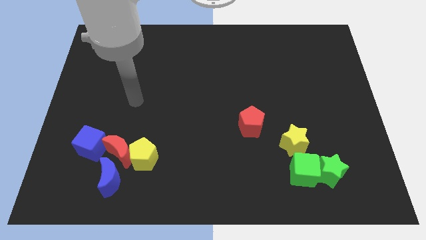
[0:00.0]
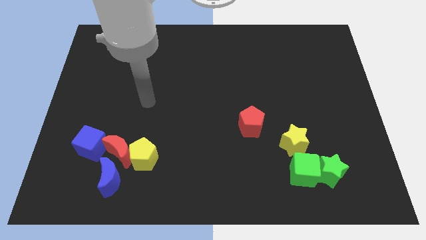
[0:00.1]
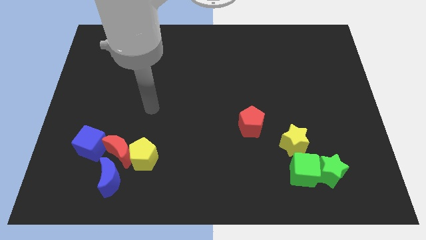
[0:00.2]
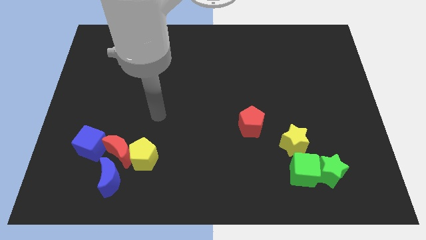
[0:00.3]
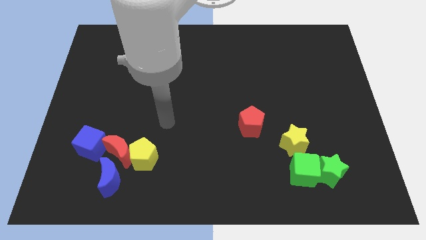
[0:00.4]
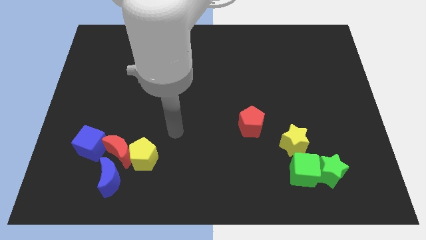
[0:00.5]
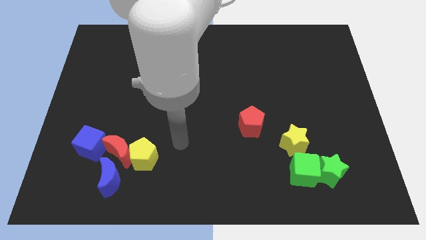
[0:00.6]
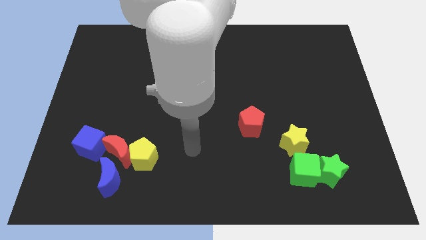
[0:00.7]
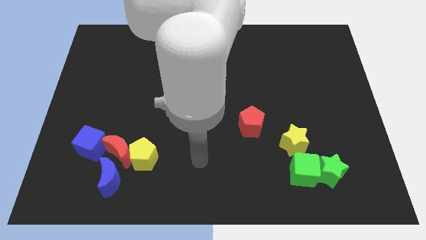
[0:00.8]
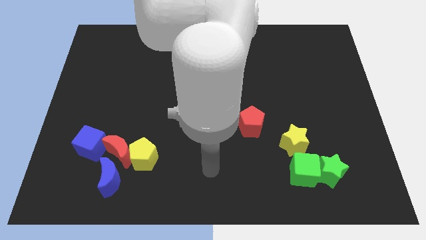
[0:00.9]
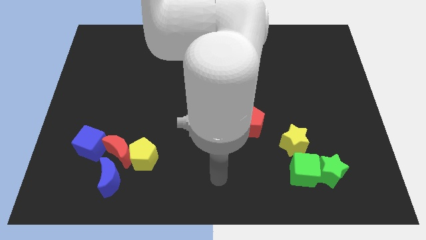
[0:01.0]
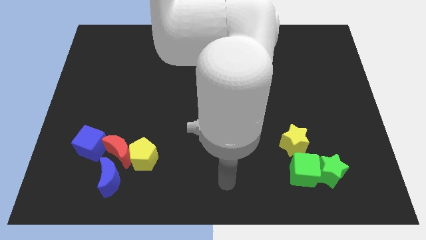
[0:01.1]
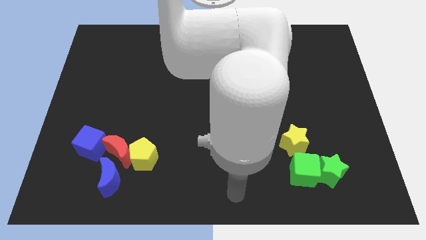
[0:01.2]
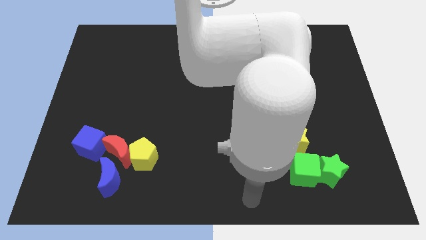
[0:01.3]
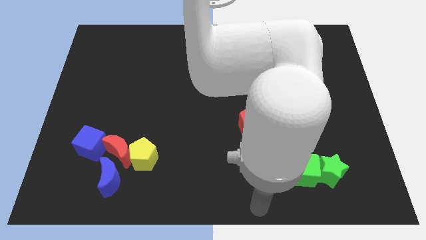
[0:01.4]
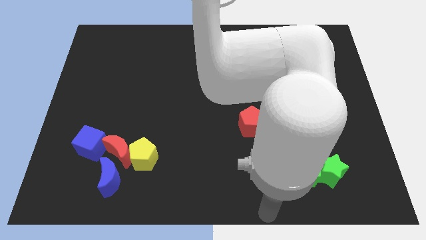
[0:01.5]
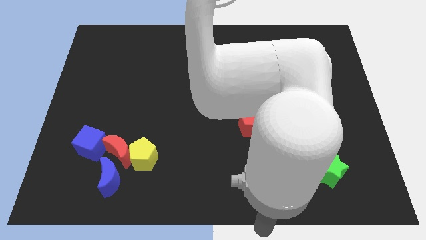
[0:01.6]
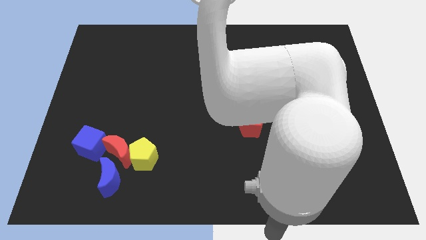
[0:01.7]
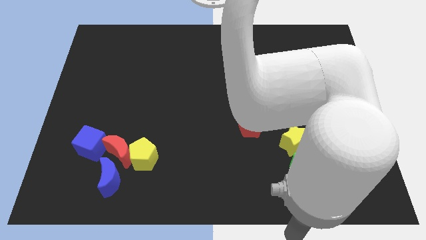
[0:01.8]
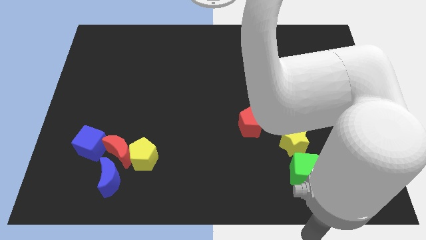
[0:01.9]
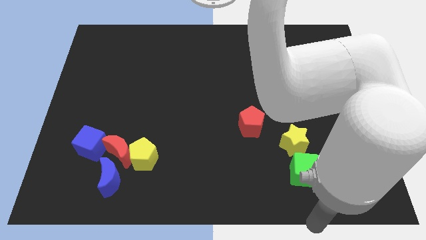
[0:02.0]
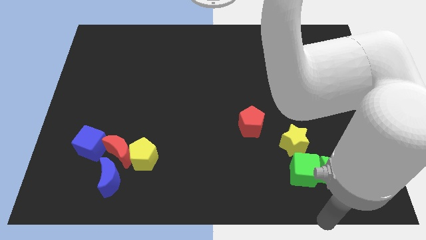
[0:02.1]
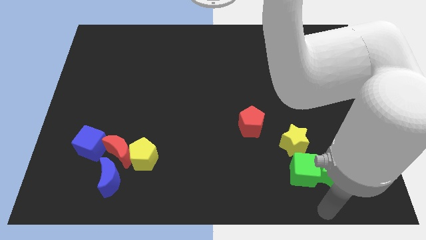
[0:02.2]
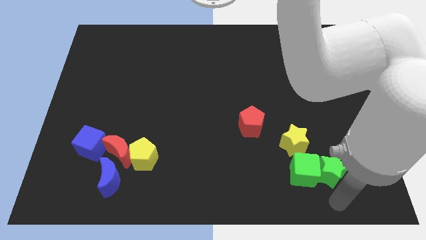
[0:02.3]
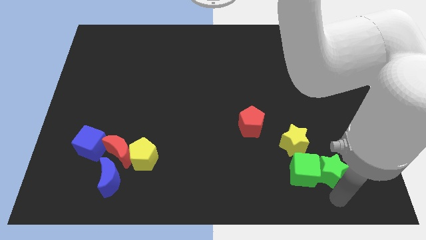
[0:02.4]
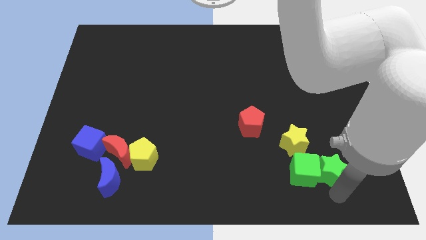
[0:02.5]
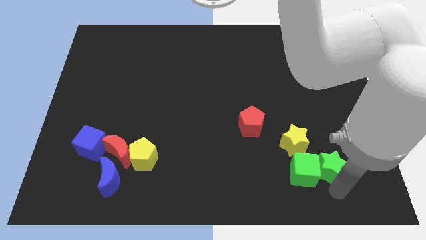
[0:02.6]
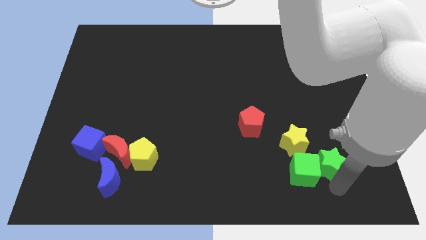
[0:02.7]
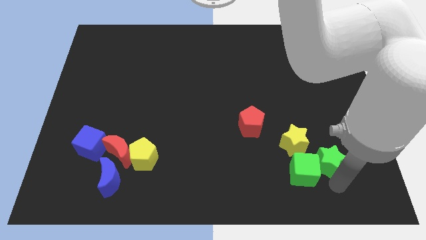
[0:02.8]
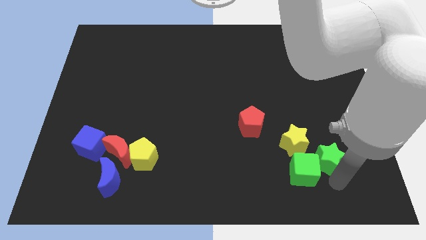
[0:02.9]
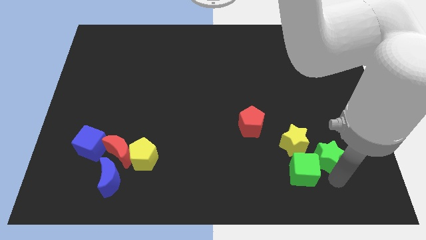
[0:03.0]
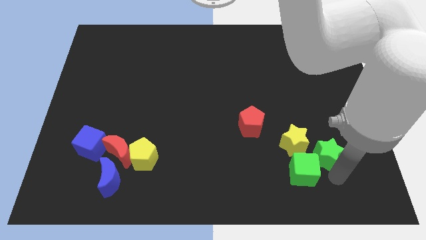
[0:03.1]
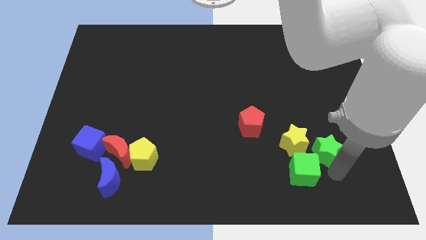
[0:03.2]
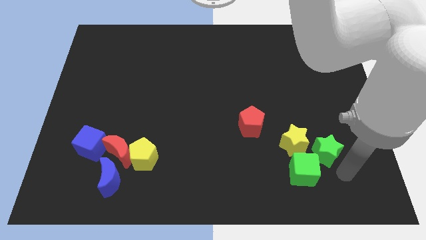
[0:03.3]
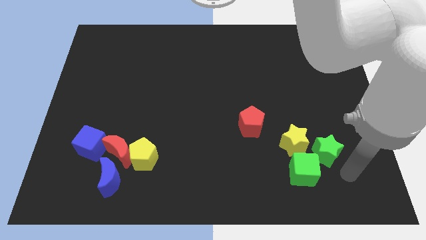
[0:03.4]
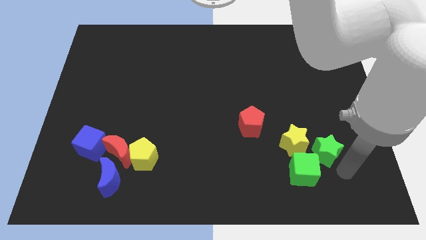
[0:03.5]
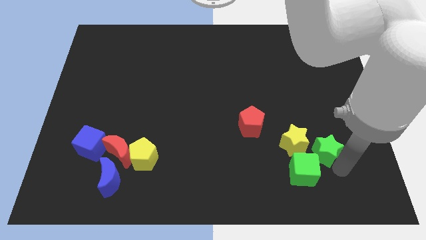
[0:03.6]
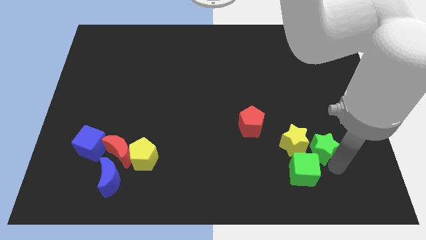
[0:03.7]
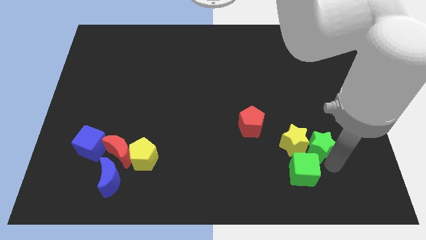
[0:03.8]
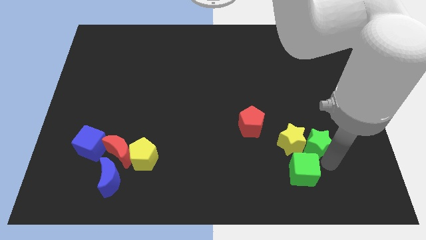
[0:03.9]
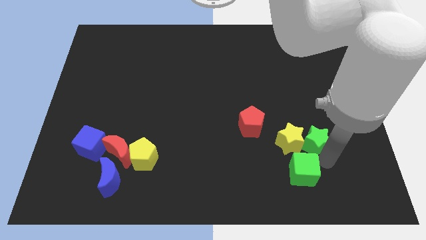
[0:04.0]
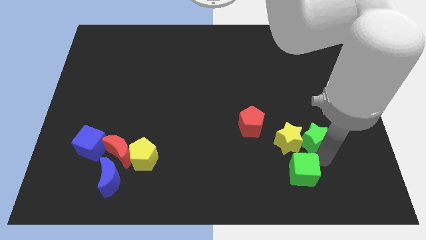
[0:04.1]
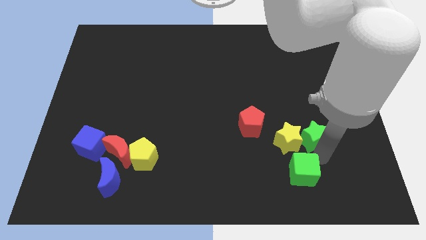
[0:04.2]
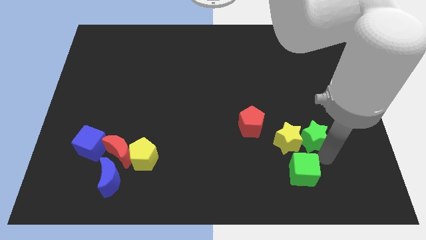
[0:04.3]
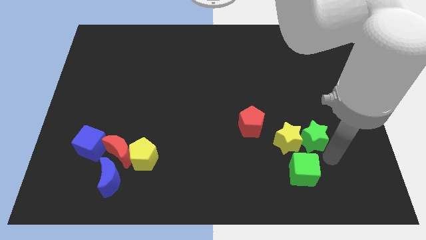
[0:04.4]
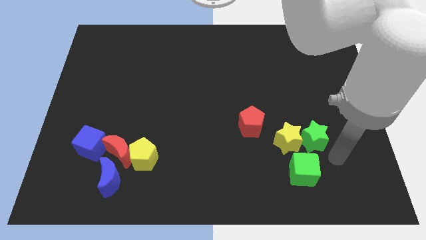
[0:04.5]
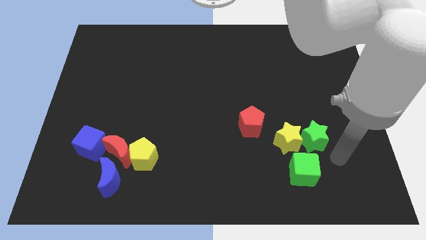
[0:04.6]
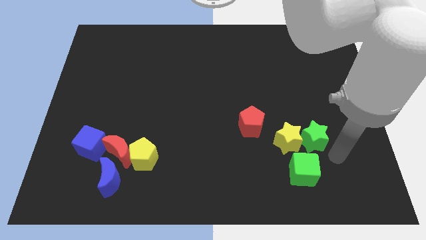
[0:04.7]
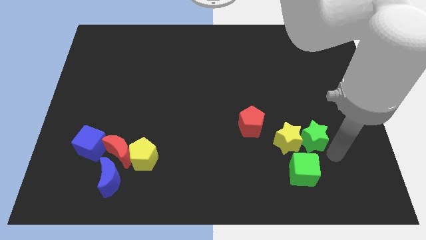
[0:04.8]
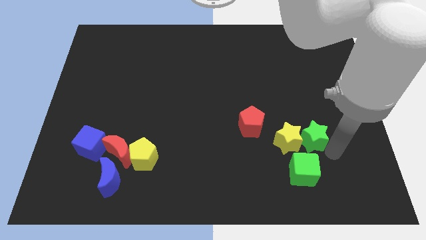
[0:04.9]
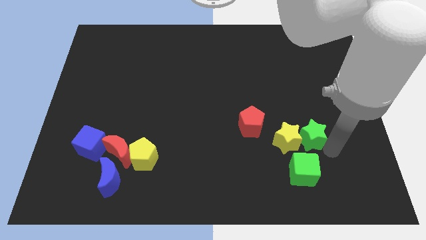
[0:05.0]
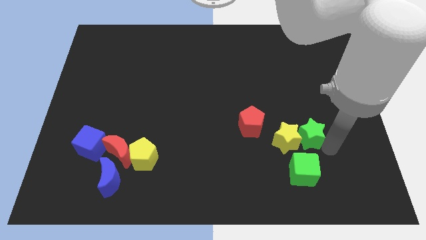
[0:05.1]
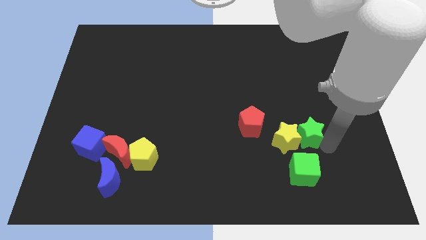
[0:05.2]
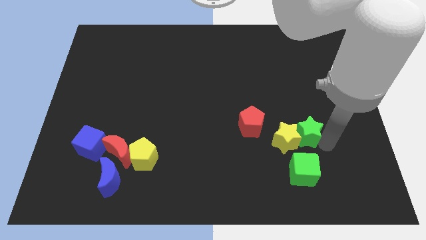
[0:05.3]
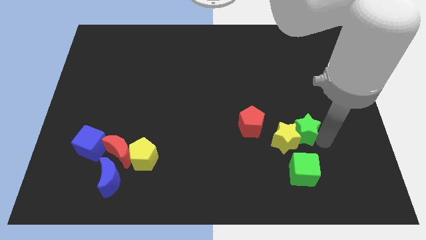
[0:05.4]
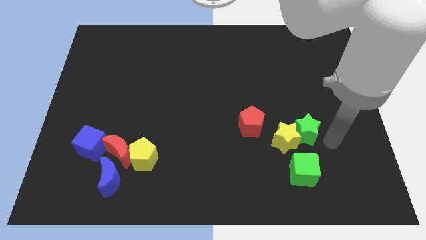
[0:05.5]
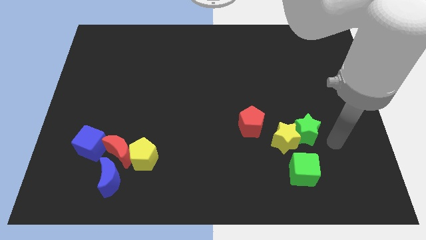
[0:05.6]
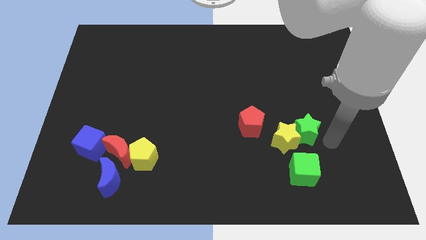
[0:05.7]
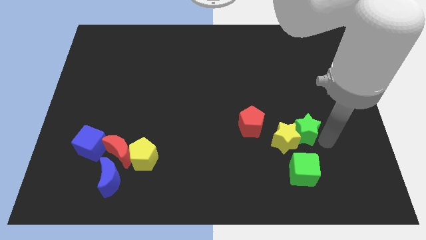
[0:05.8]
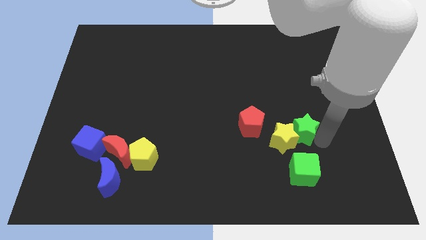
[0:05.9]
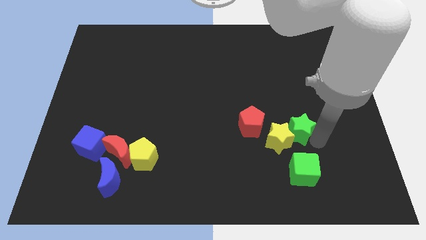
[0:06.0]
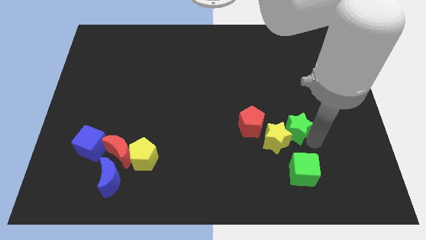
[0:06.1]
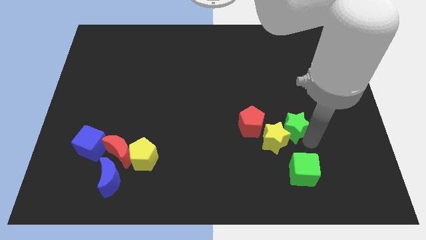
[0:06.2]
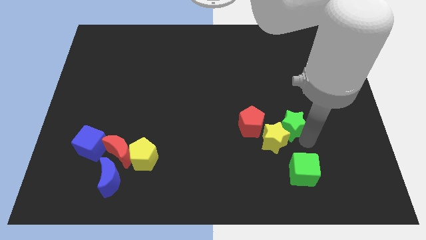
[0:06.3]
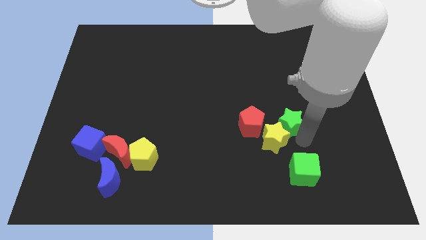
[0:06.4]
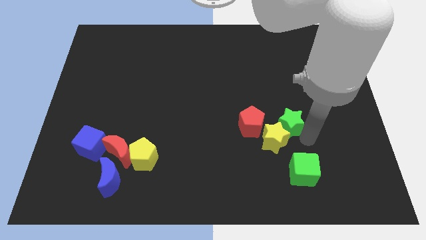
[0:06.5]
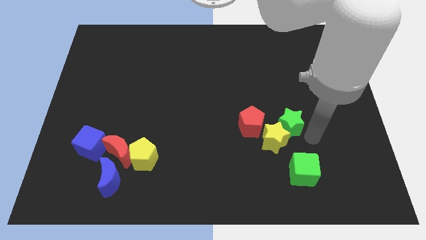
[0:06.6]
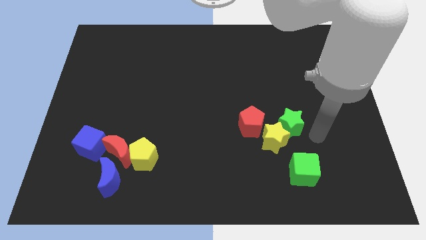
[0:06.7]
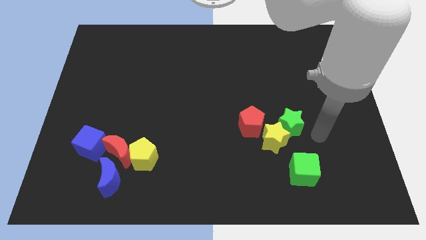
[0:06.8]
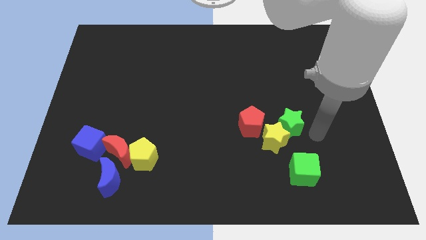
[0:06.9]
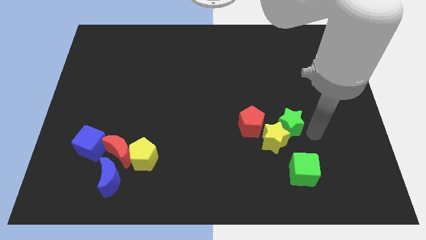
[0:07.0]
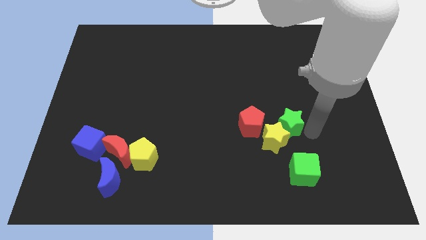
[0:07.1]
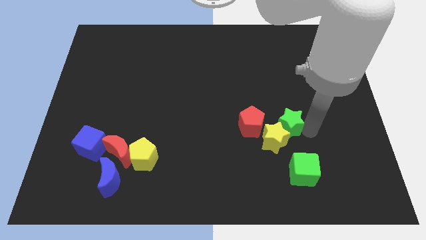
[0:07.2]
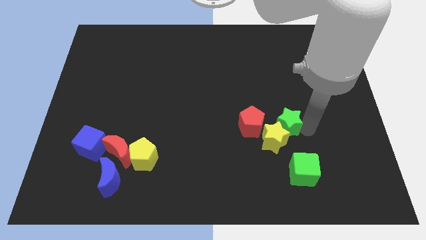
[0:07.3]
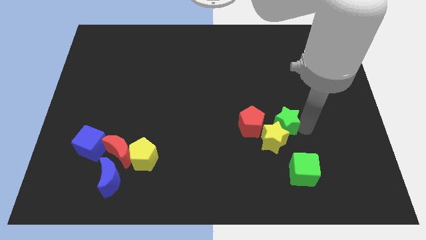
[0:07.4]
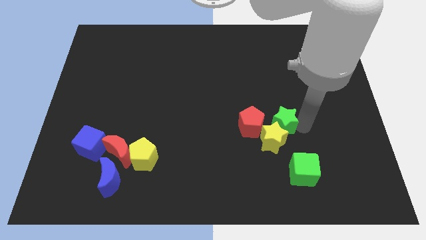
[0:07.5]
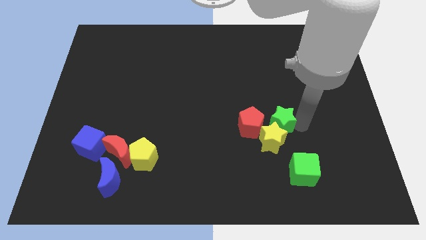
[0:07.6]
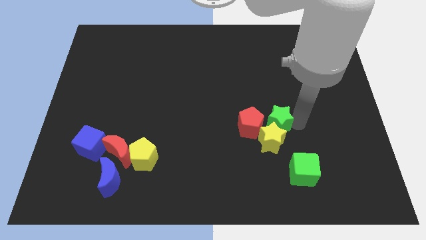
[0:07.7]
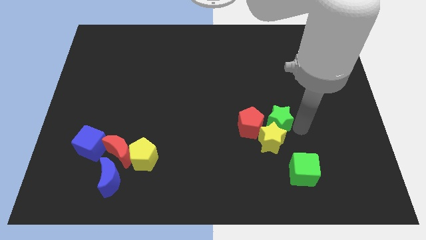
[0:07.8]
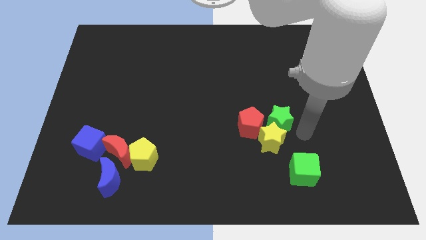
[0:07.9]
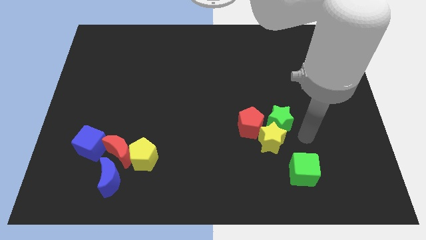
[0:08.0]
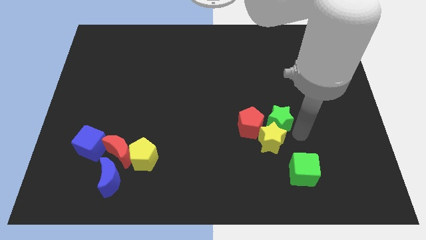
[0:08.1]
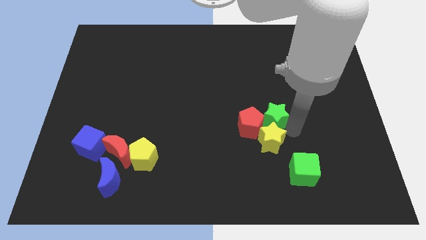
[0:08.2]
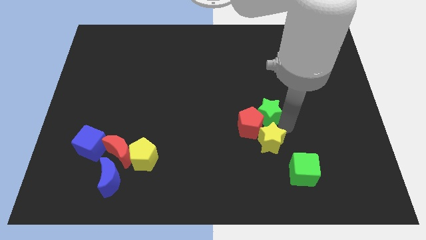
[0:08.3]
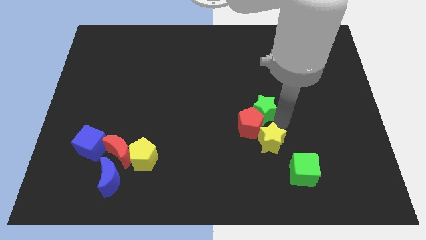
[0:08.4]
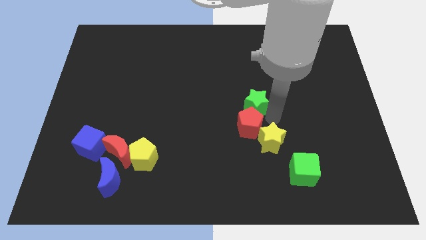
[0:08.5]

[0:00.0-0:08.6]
move the green star up and then to the left
